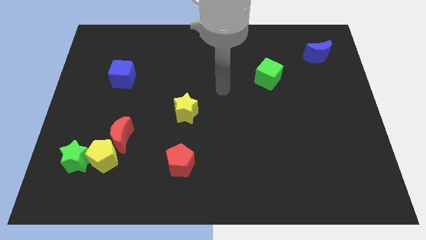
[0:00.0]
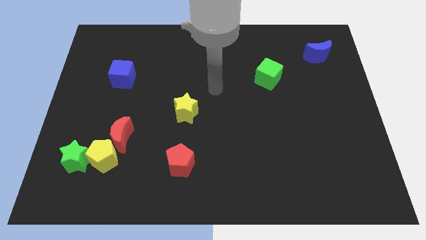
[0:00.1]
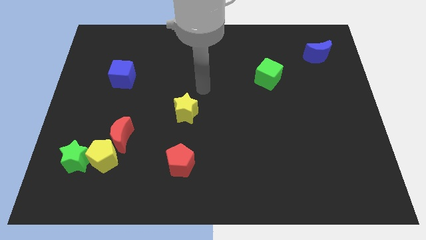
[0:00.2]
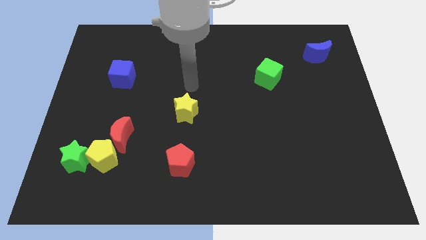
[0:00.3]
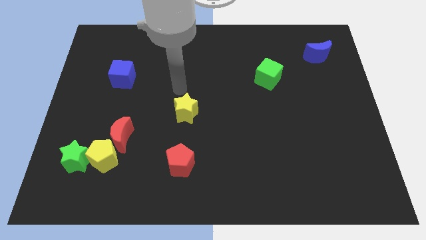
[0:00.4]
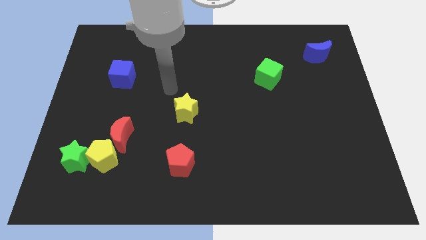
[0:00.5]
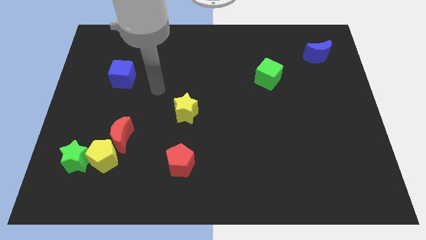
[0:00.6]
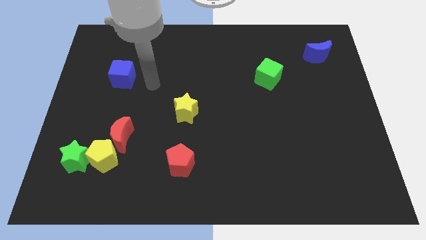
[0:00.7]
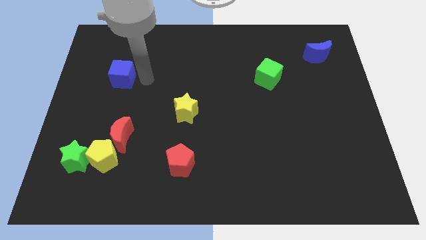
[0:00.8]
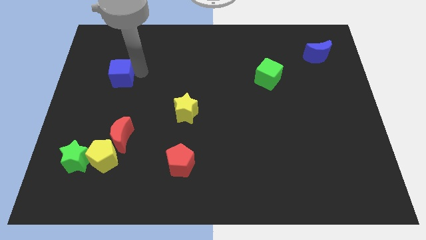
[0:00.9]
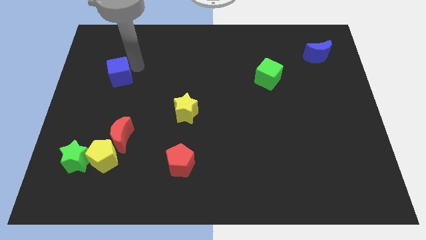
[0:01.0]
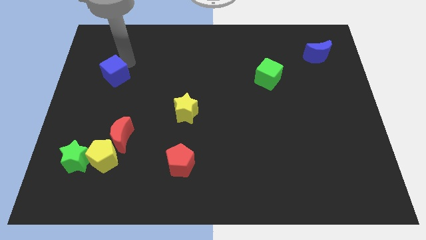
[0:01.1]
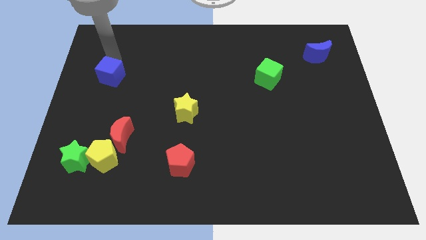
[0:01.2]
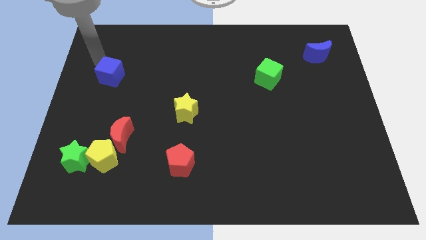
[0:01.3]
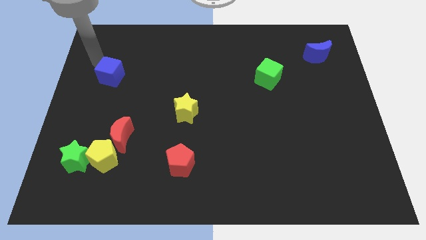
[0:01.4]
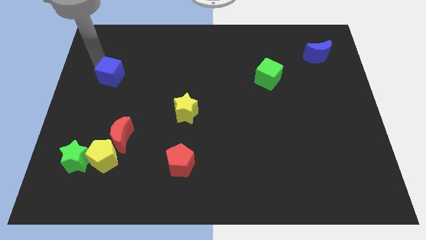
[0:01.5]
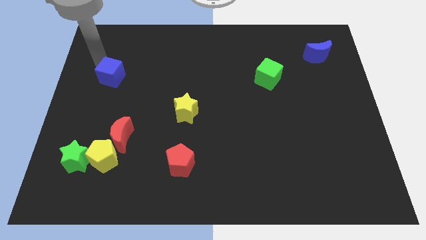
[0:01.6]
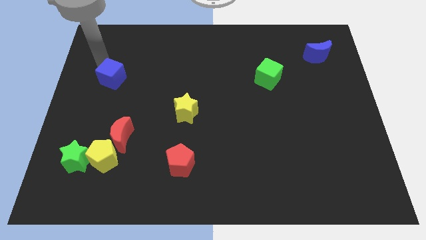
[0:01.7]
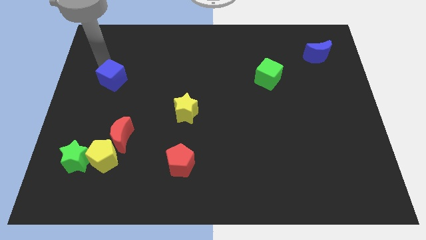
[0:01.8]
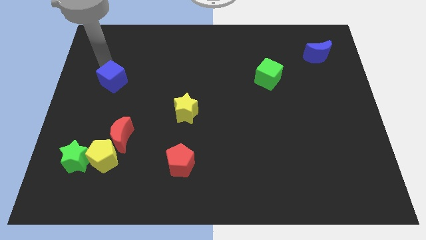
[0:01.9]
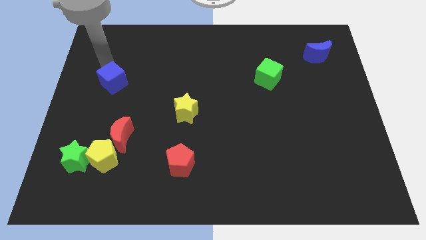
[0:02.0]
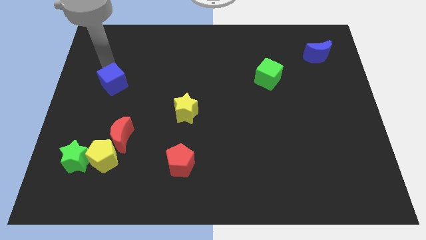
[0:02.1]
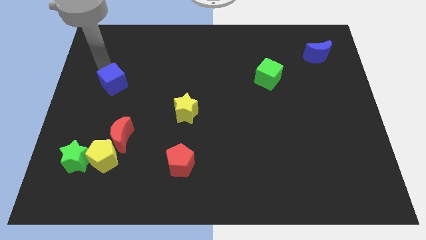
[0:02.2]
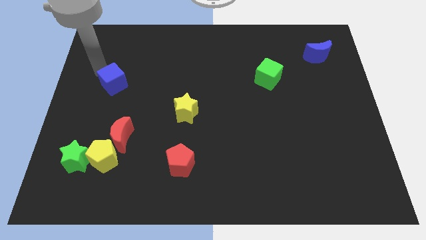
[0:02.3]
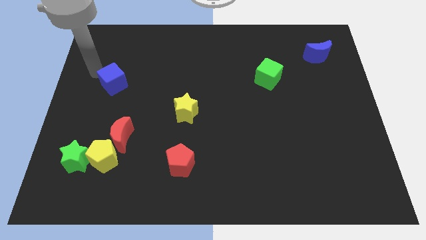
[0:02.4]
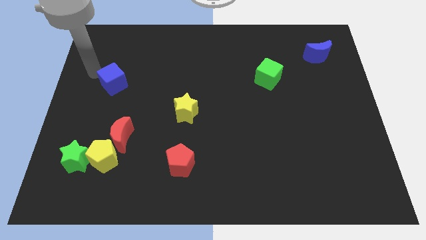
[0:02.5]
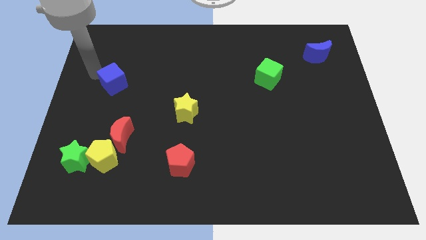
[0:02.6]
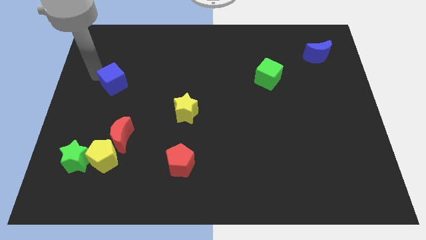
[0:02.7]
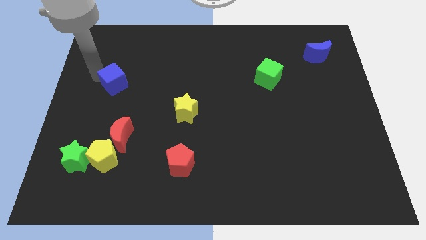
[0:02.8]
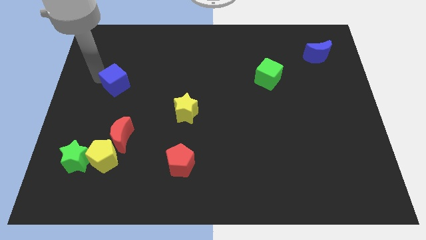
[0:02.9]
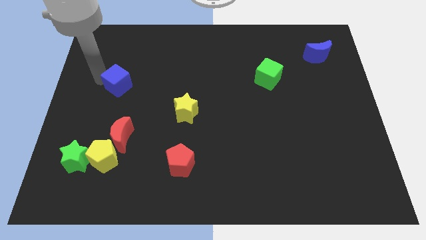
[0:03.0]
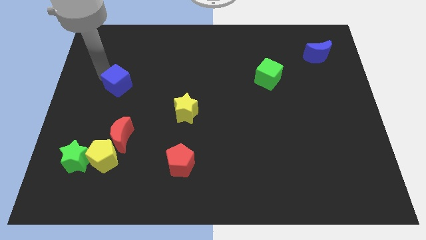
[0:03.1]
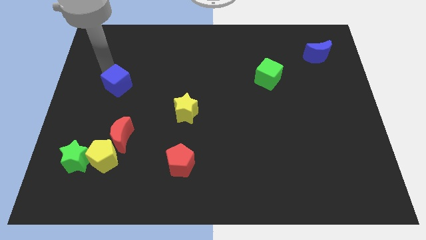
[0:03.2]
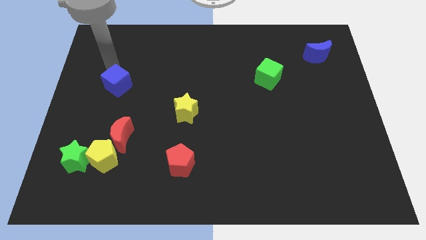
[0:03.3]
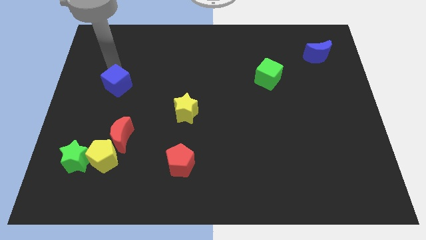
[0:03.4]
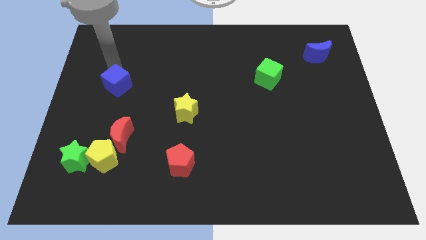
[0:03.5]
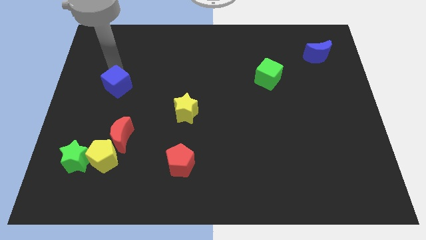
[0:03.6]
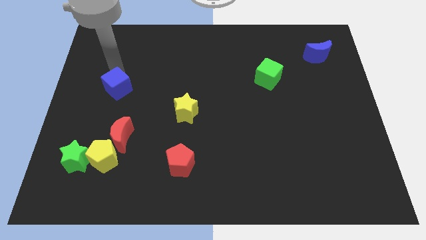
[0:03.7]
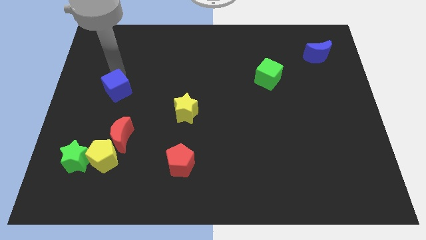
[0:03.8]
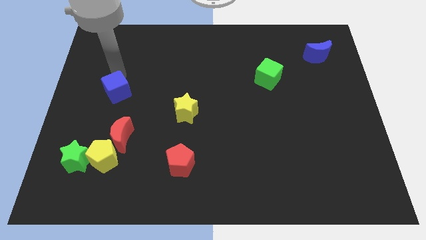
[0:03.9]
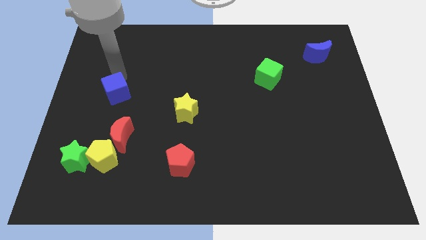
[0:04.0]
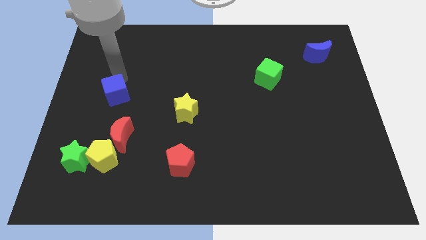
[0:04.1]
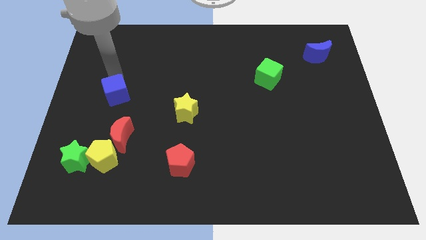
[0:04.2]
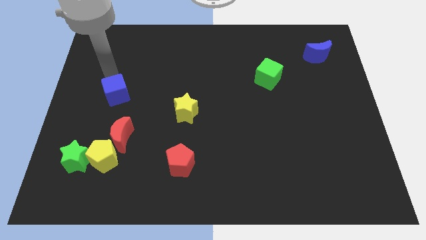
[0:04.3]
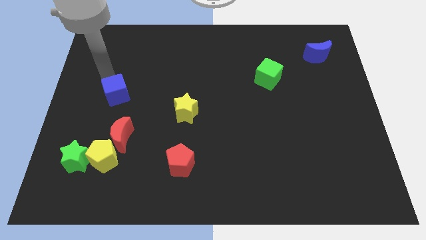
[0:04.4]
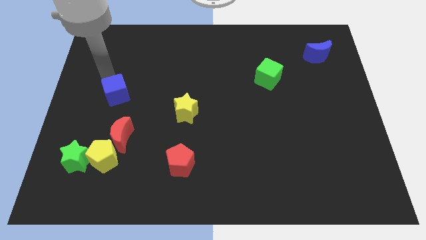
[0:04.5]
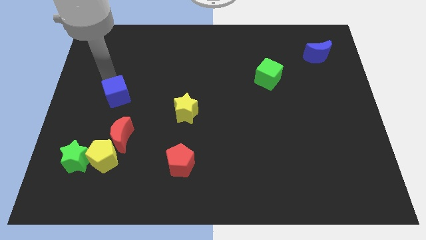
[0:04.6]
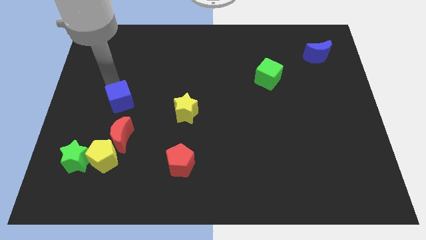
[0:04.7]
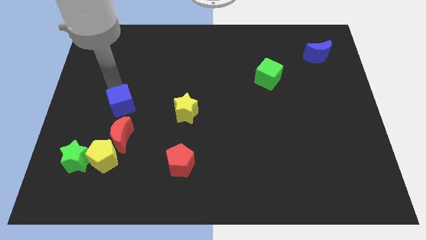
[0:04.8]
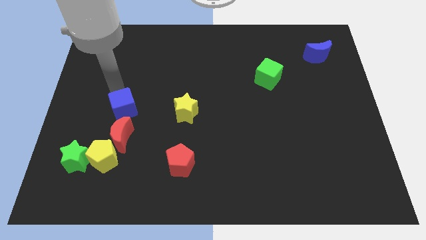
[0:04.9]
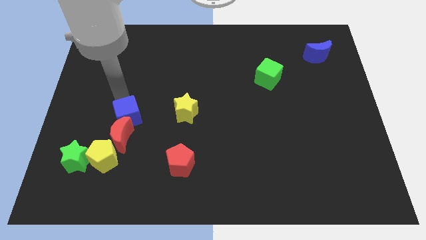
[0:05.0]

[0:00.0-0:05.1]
put the blue cube close to the red moon
